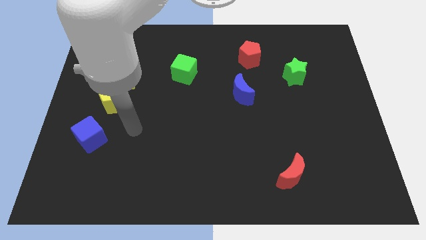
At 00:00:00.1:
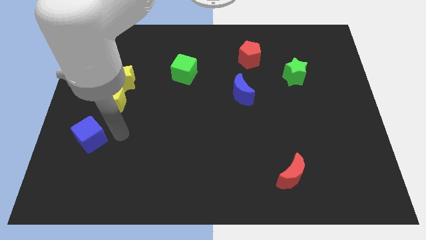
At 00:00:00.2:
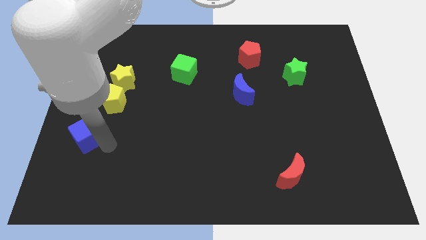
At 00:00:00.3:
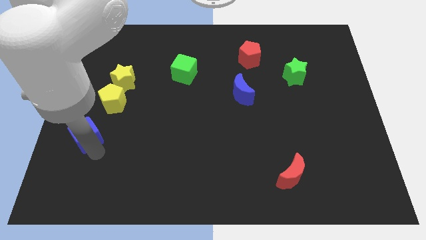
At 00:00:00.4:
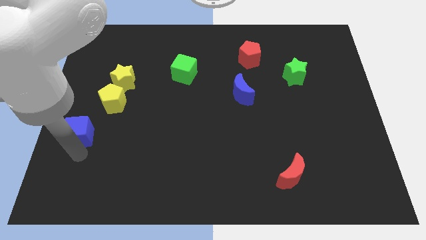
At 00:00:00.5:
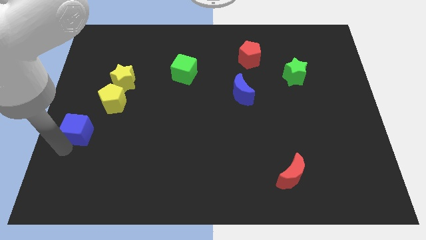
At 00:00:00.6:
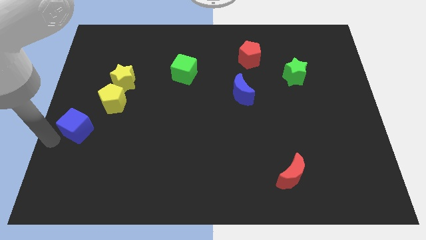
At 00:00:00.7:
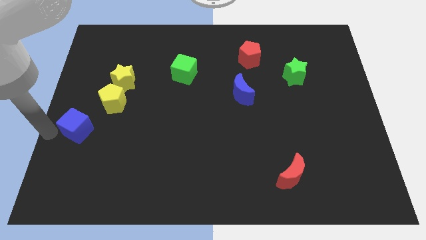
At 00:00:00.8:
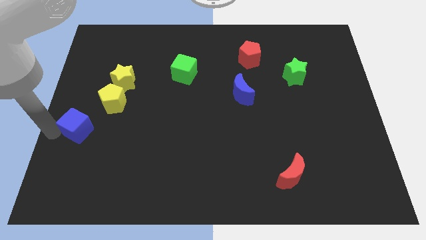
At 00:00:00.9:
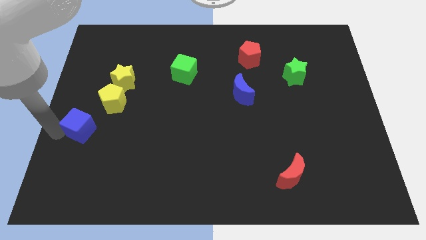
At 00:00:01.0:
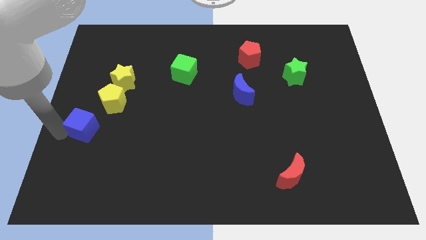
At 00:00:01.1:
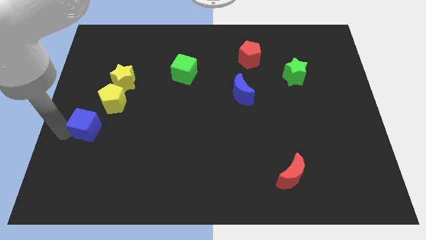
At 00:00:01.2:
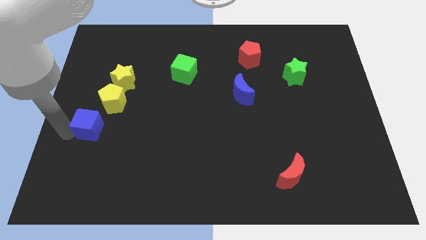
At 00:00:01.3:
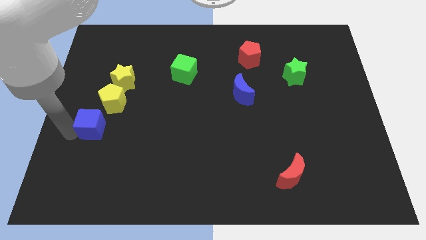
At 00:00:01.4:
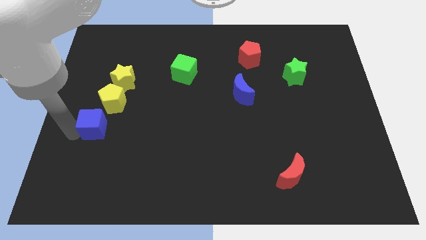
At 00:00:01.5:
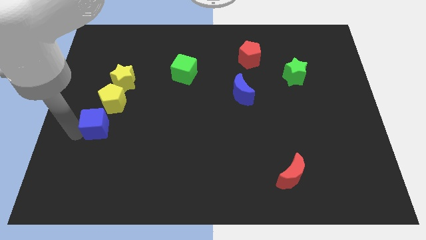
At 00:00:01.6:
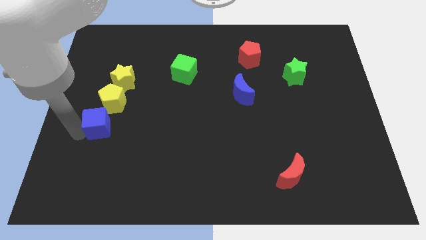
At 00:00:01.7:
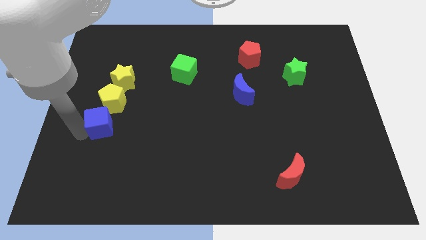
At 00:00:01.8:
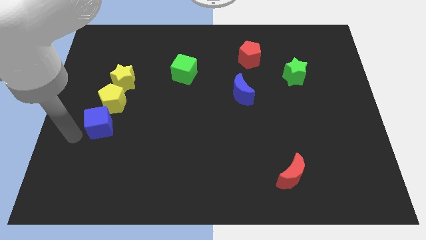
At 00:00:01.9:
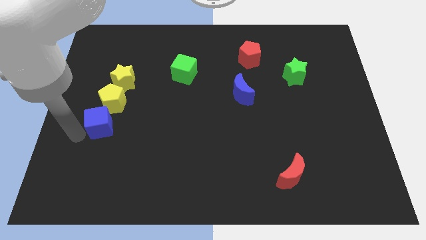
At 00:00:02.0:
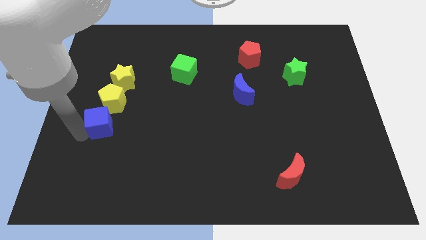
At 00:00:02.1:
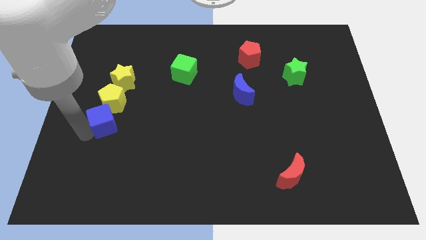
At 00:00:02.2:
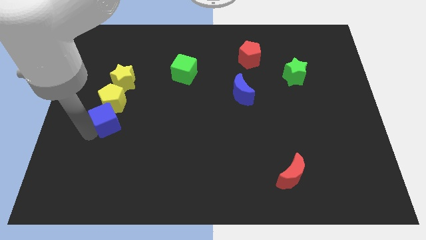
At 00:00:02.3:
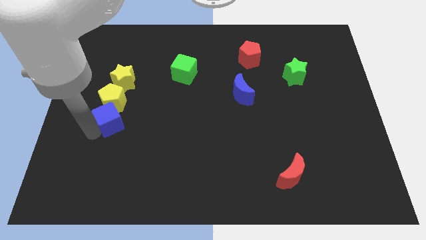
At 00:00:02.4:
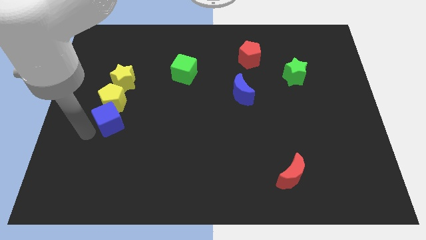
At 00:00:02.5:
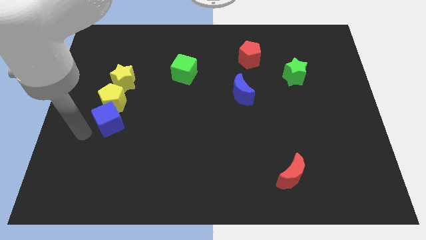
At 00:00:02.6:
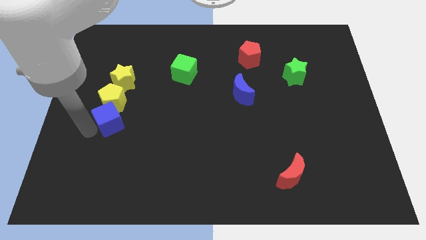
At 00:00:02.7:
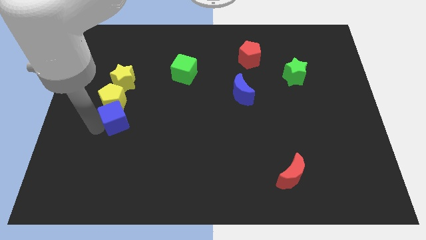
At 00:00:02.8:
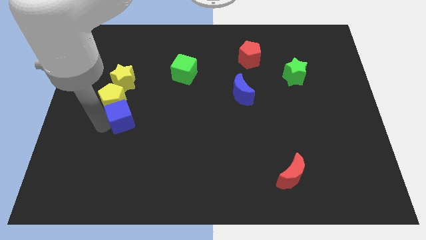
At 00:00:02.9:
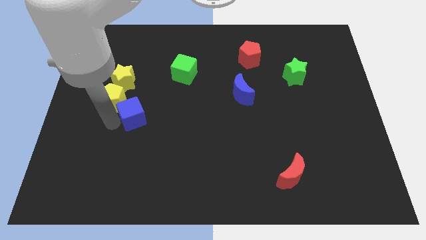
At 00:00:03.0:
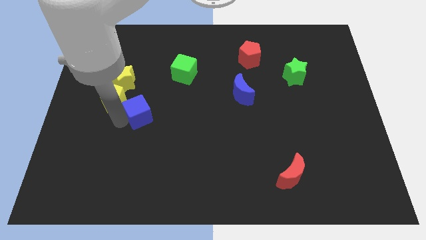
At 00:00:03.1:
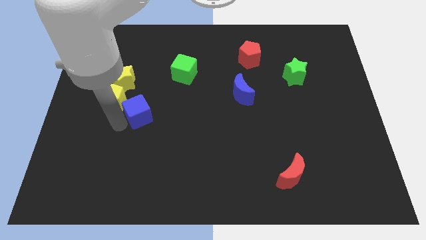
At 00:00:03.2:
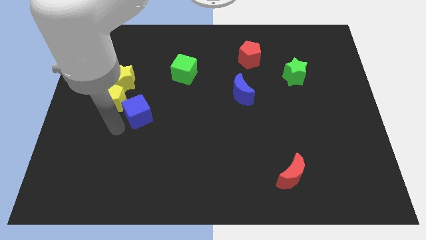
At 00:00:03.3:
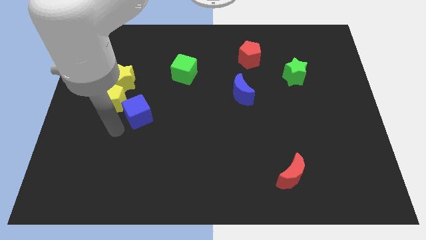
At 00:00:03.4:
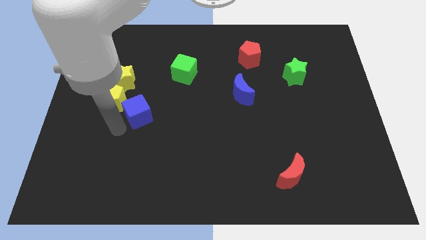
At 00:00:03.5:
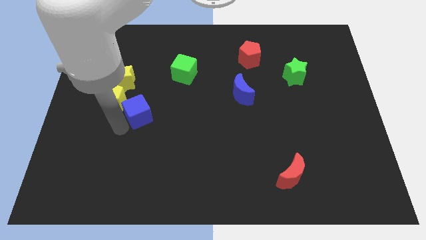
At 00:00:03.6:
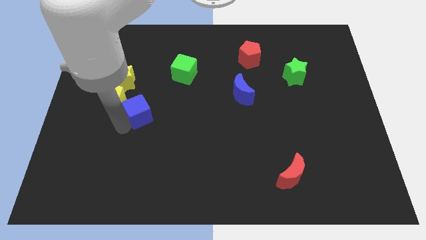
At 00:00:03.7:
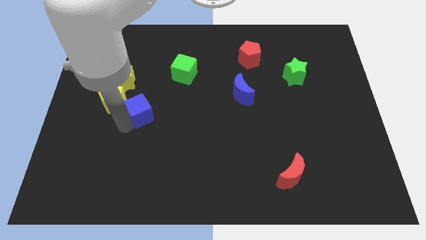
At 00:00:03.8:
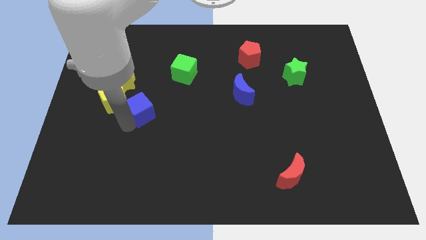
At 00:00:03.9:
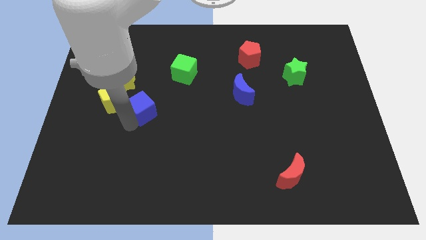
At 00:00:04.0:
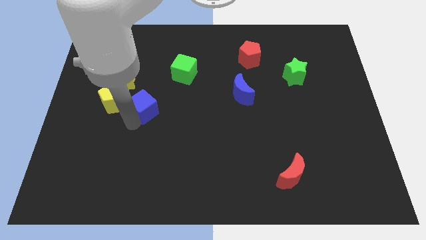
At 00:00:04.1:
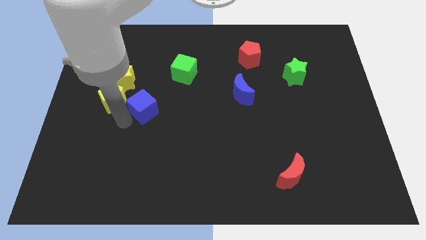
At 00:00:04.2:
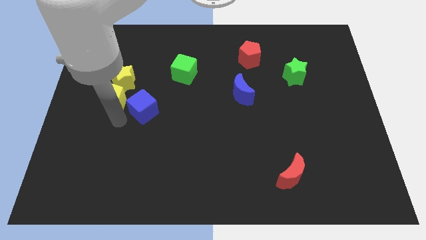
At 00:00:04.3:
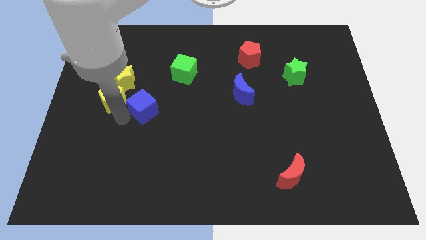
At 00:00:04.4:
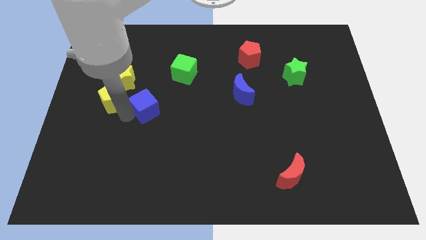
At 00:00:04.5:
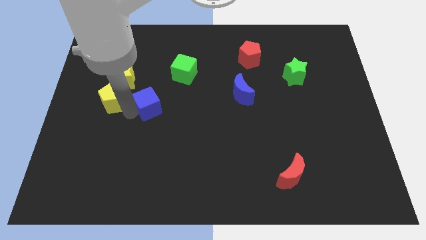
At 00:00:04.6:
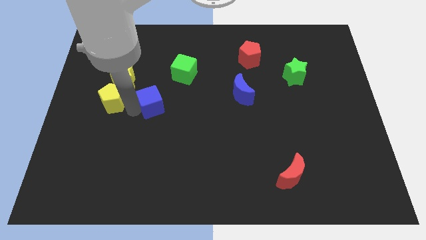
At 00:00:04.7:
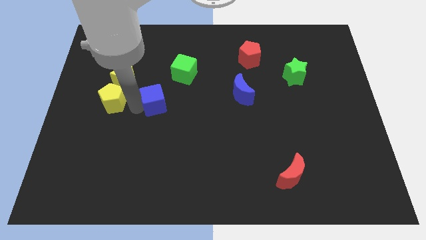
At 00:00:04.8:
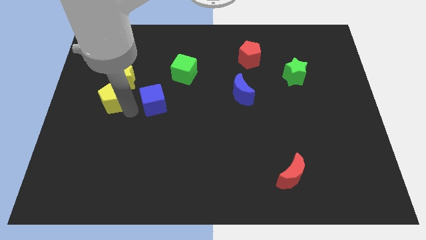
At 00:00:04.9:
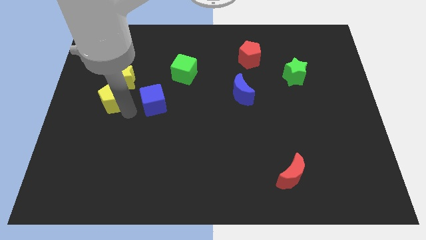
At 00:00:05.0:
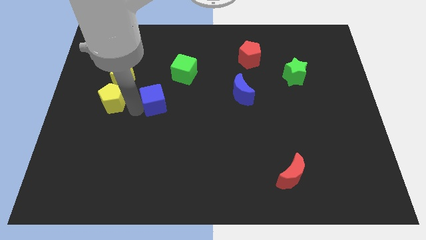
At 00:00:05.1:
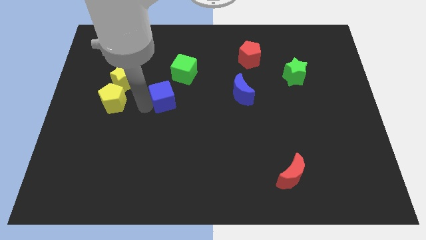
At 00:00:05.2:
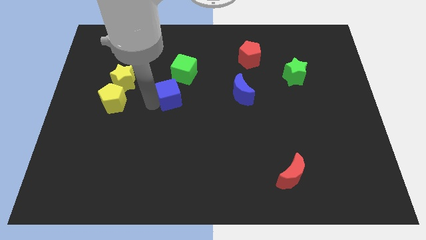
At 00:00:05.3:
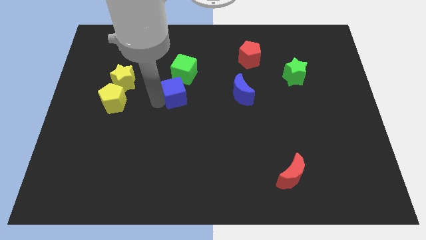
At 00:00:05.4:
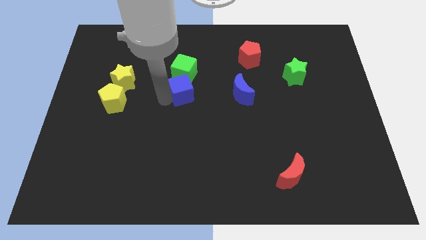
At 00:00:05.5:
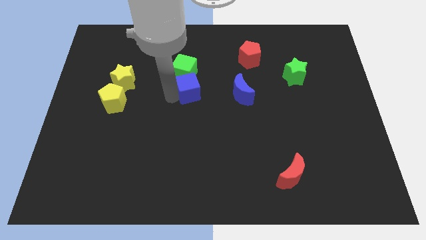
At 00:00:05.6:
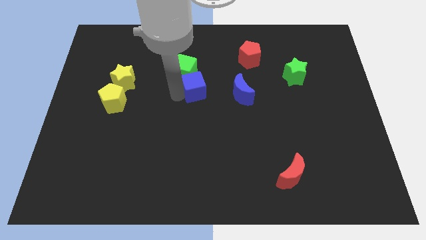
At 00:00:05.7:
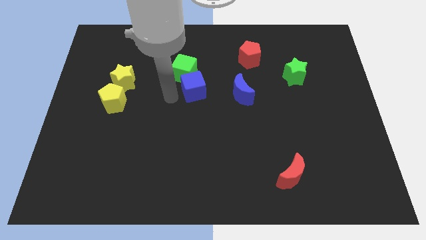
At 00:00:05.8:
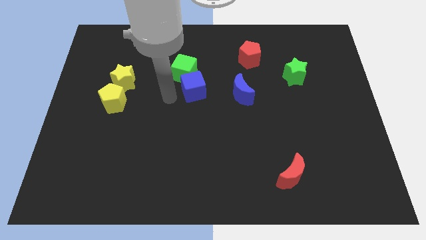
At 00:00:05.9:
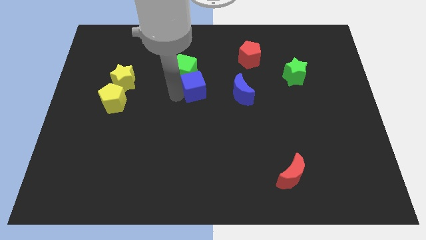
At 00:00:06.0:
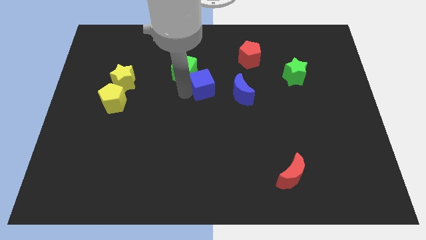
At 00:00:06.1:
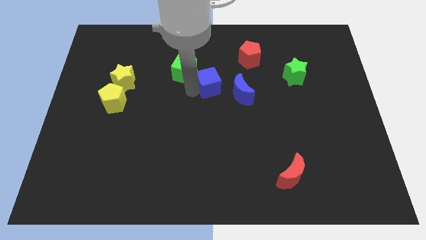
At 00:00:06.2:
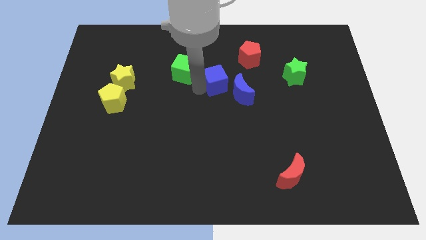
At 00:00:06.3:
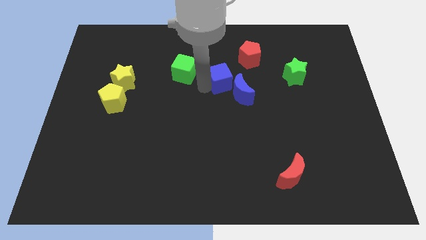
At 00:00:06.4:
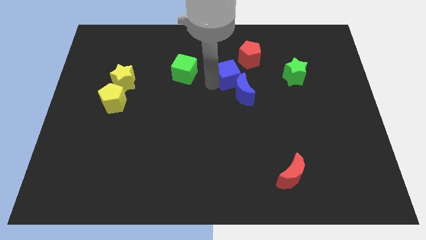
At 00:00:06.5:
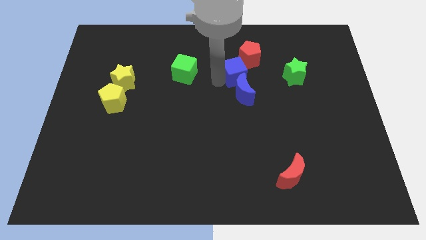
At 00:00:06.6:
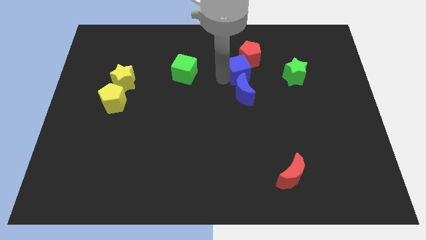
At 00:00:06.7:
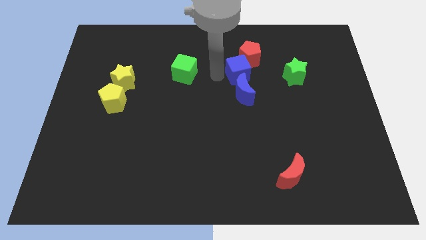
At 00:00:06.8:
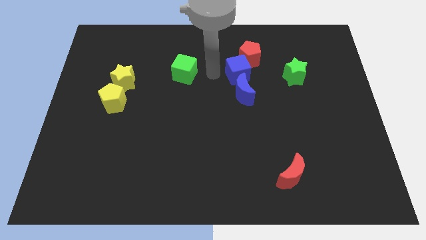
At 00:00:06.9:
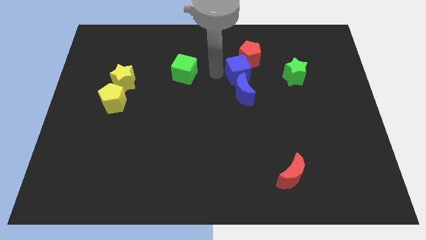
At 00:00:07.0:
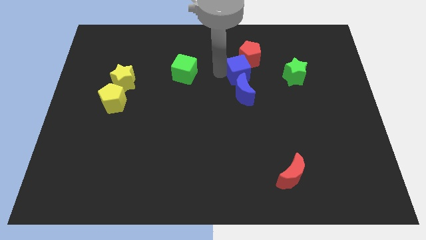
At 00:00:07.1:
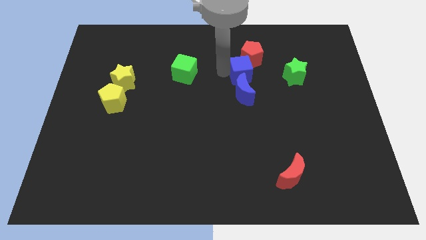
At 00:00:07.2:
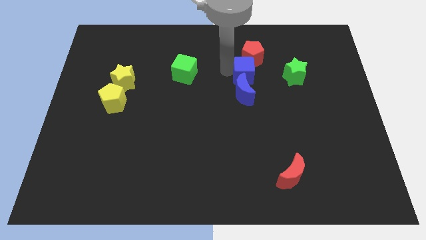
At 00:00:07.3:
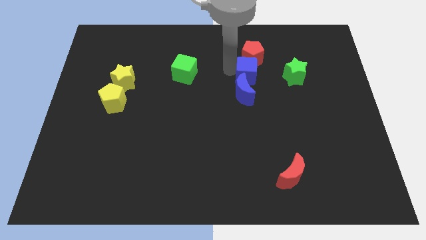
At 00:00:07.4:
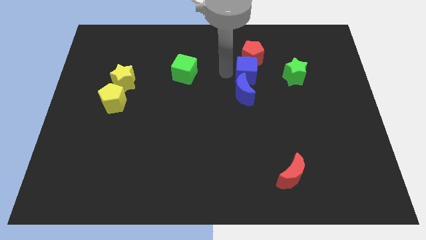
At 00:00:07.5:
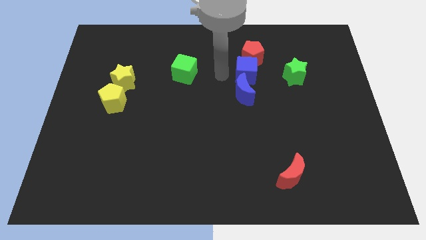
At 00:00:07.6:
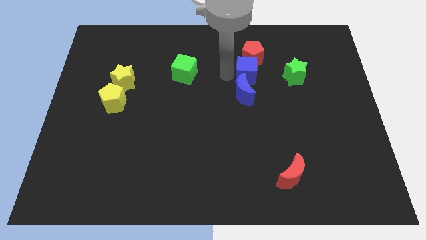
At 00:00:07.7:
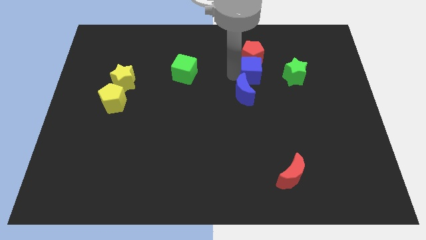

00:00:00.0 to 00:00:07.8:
push the blue cube to the bottom right of the red pentagon
